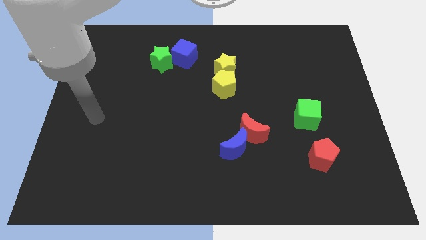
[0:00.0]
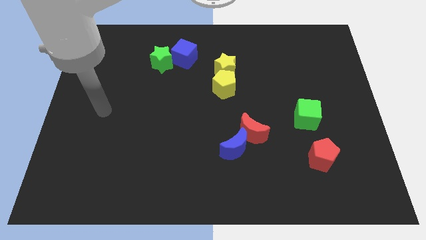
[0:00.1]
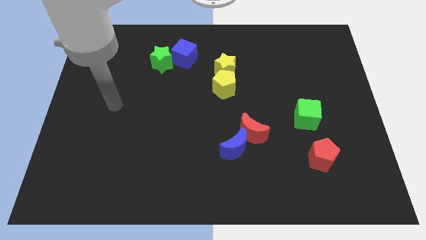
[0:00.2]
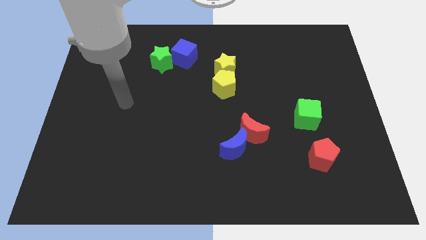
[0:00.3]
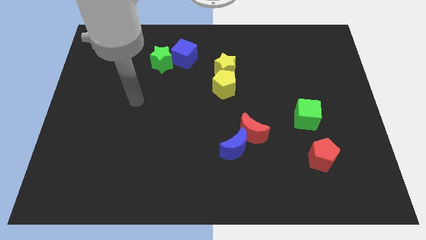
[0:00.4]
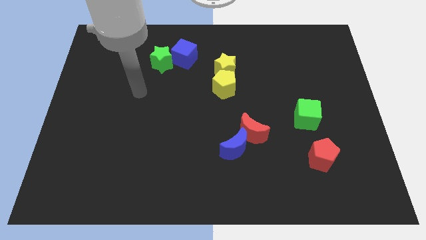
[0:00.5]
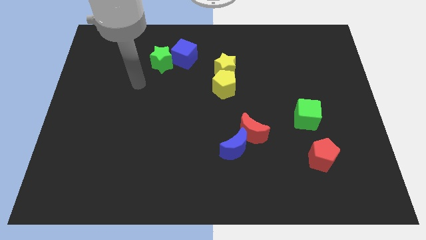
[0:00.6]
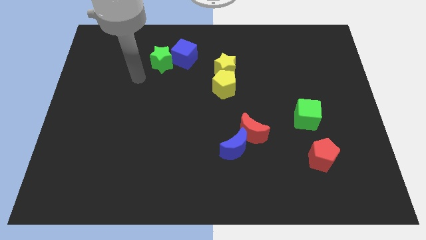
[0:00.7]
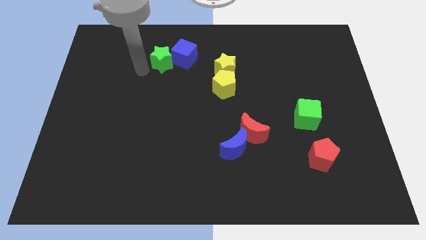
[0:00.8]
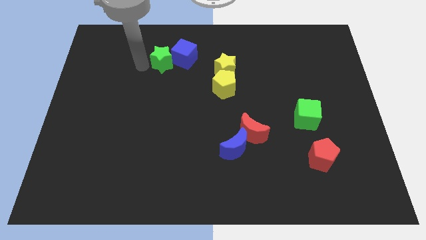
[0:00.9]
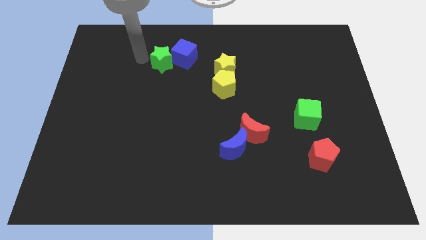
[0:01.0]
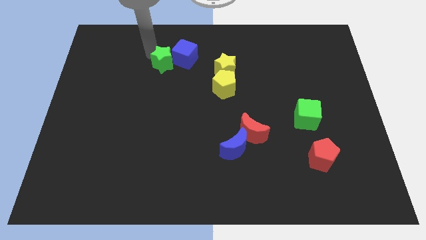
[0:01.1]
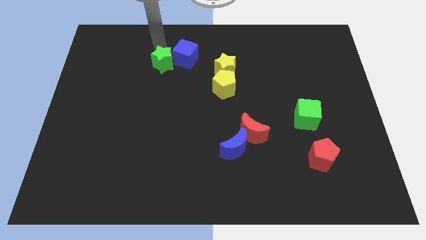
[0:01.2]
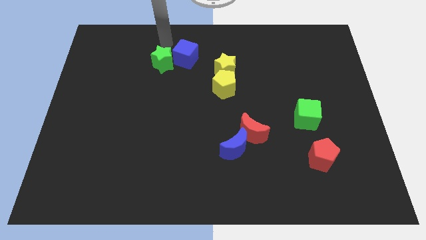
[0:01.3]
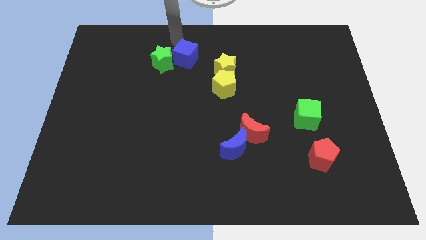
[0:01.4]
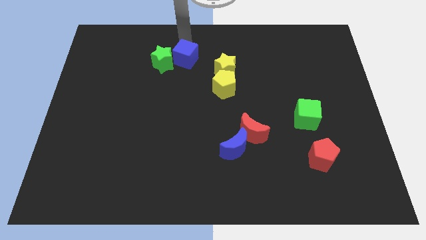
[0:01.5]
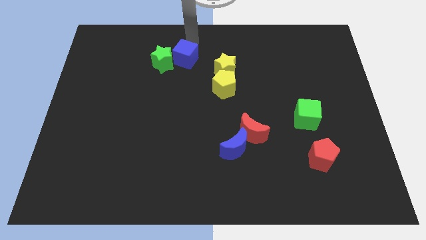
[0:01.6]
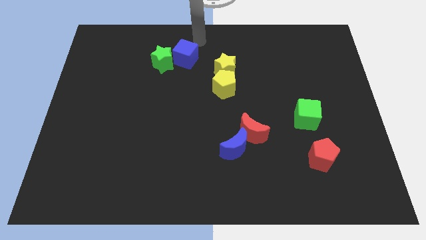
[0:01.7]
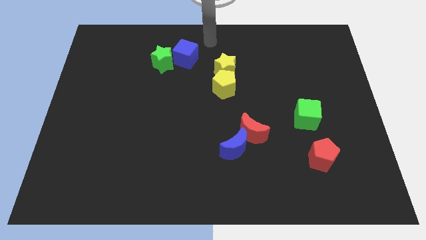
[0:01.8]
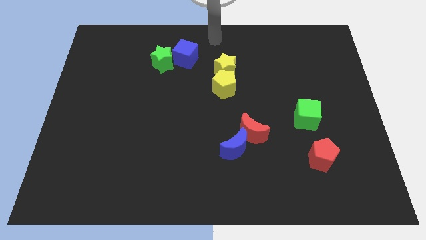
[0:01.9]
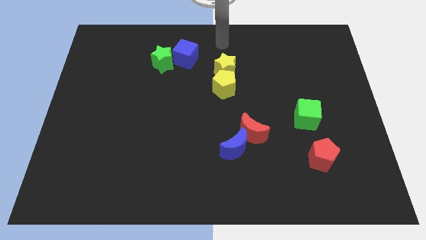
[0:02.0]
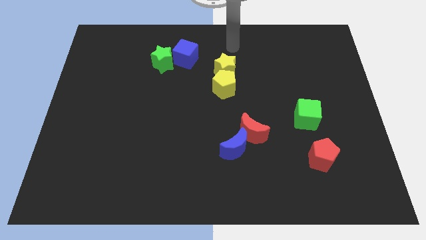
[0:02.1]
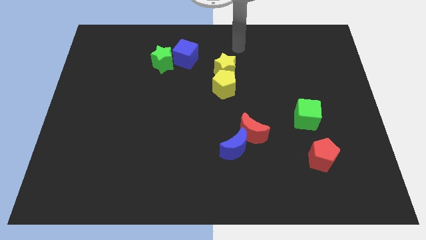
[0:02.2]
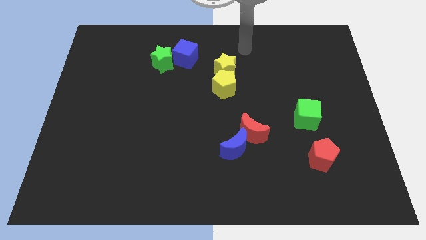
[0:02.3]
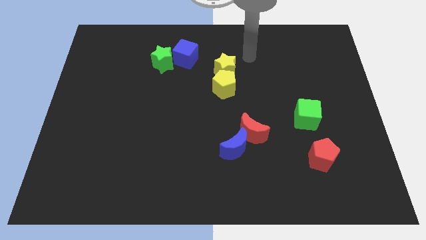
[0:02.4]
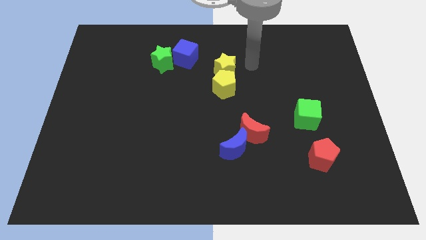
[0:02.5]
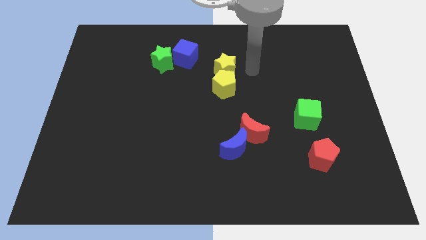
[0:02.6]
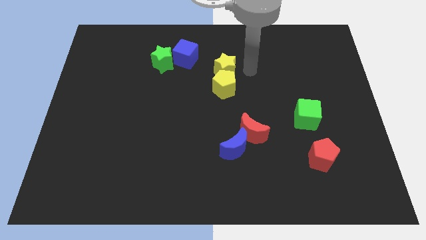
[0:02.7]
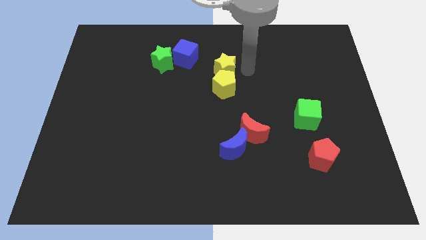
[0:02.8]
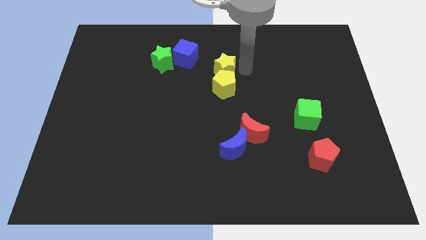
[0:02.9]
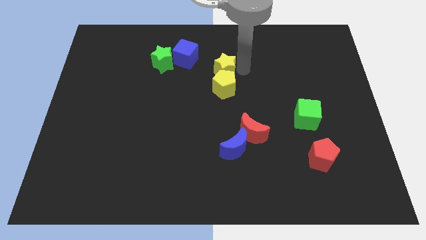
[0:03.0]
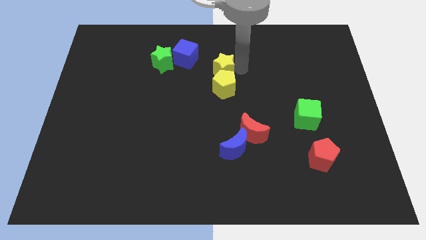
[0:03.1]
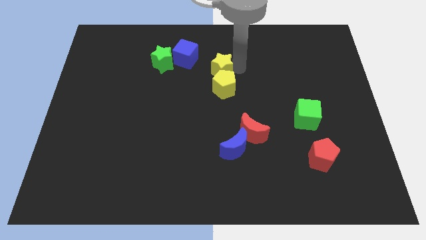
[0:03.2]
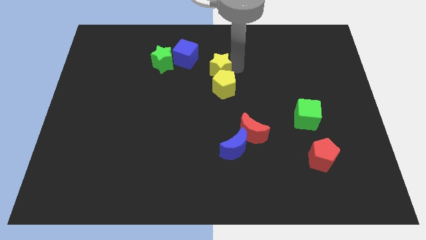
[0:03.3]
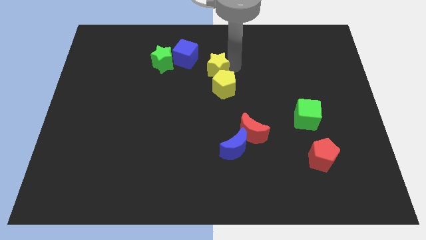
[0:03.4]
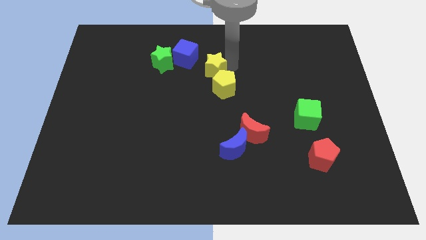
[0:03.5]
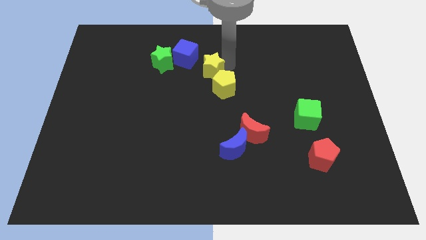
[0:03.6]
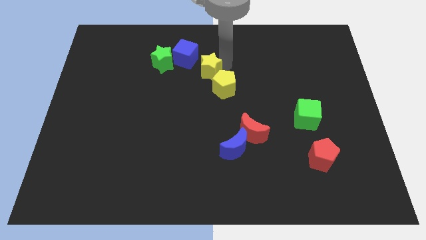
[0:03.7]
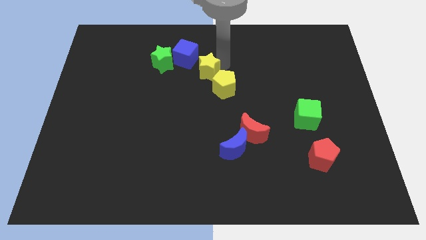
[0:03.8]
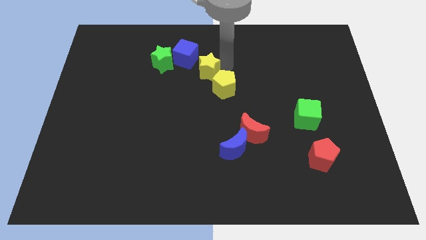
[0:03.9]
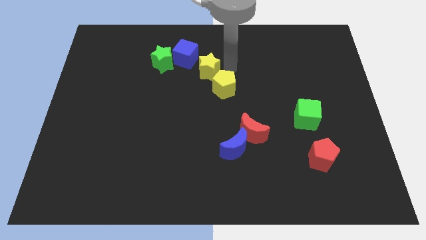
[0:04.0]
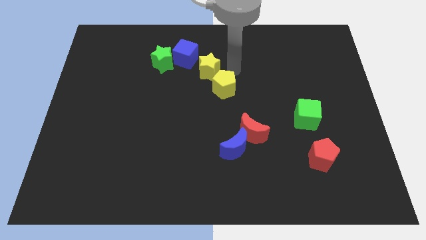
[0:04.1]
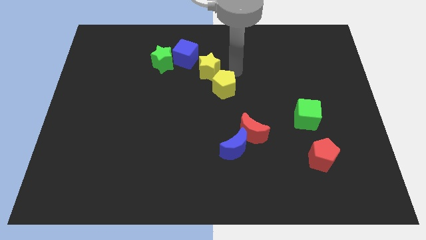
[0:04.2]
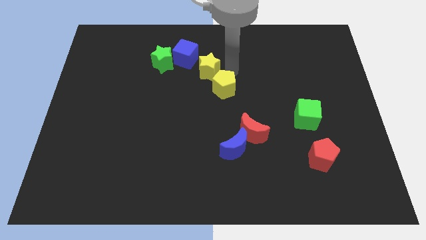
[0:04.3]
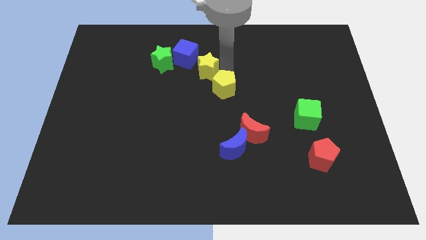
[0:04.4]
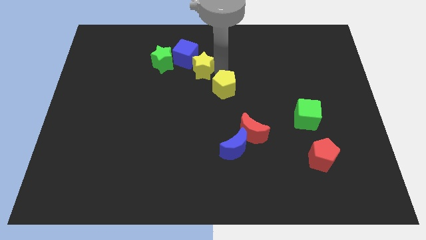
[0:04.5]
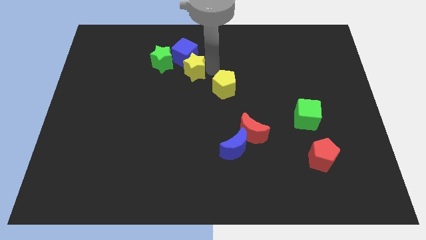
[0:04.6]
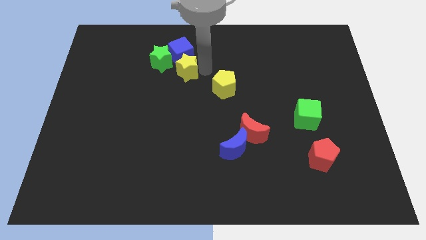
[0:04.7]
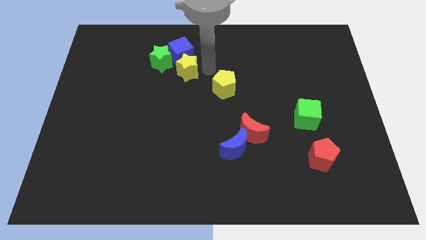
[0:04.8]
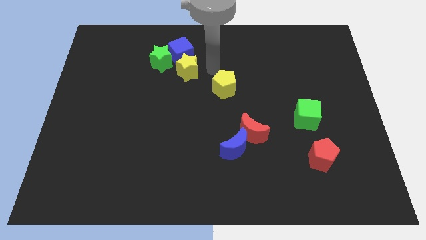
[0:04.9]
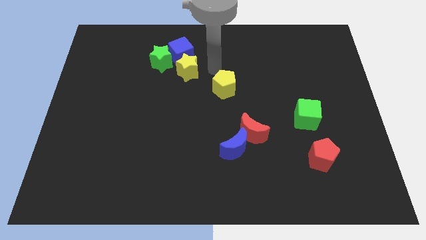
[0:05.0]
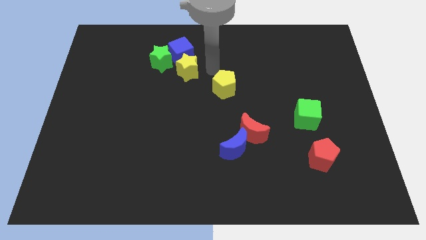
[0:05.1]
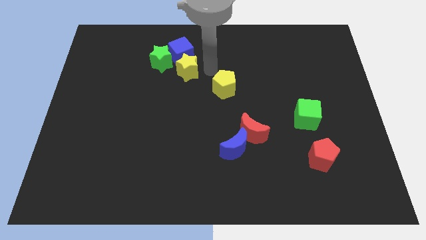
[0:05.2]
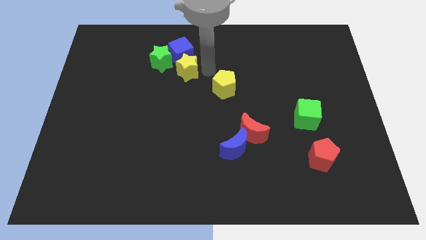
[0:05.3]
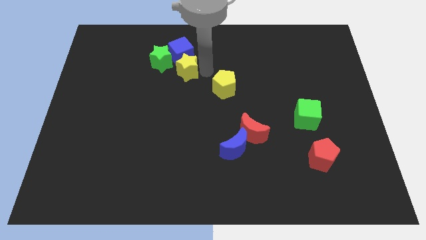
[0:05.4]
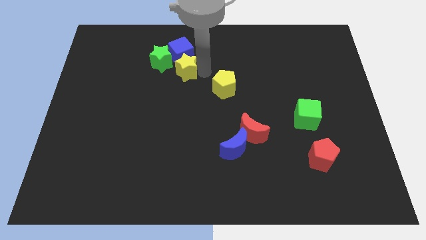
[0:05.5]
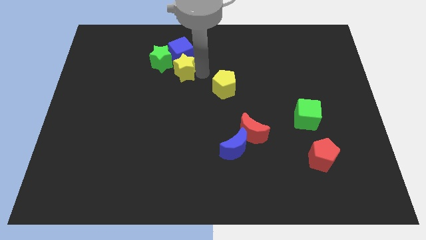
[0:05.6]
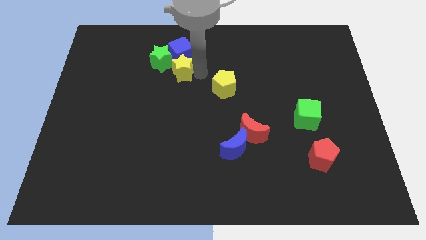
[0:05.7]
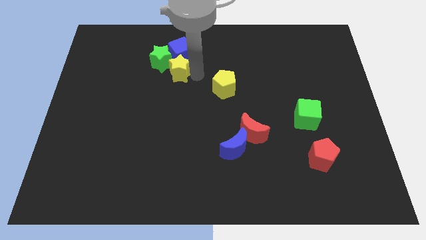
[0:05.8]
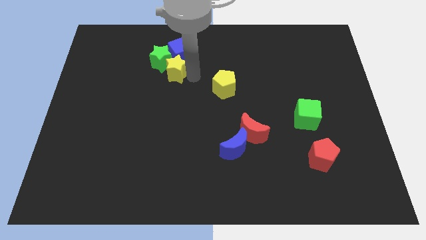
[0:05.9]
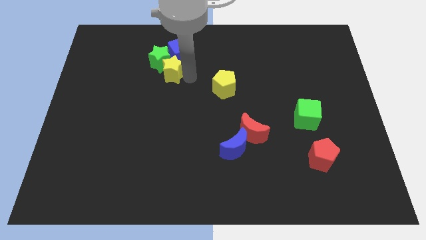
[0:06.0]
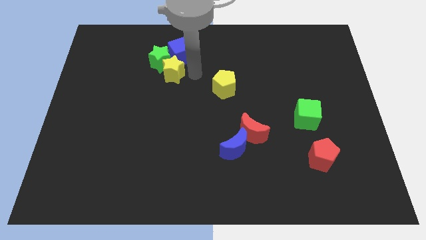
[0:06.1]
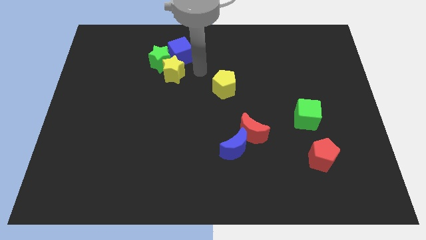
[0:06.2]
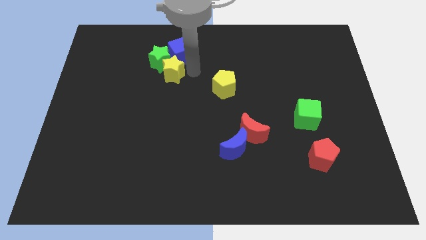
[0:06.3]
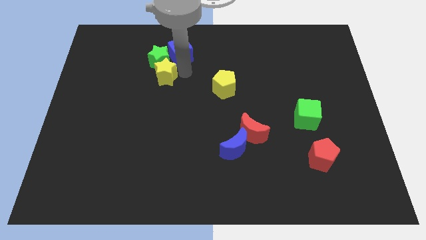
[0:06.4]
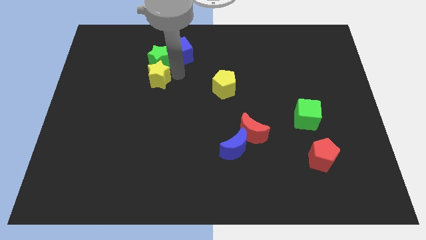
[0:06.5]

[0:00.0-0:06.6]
slide the yellow star to the bottom left side of the green star

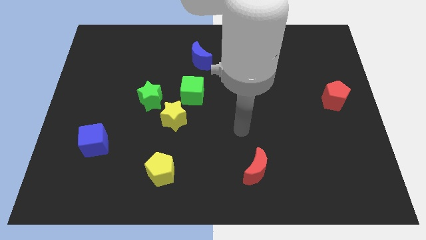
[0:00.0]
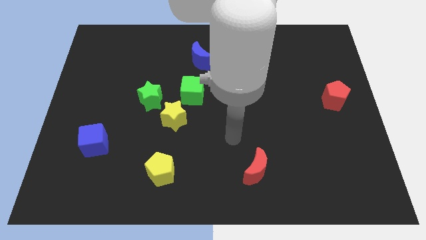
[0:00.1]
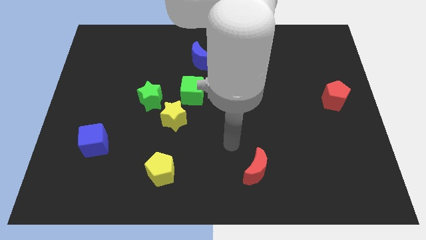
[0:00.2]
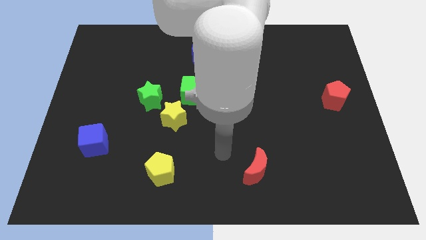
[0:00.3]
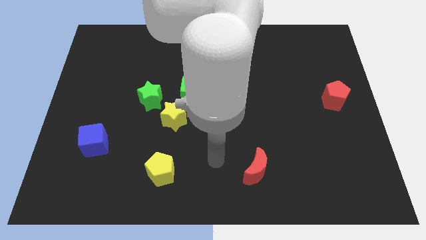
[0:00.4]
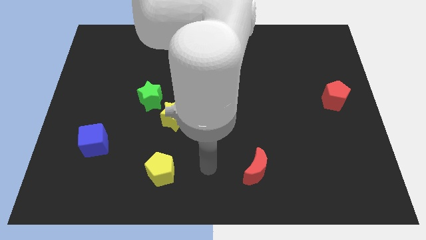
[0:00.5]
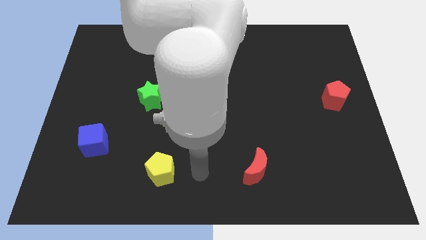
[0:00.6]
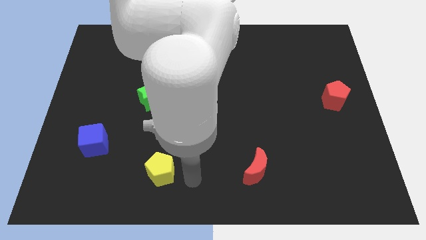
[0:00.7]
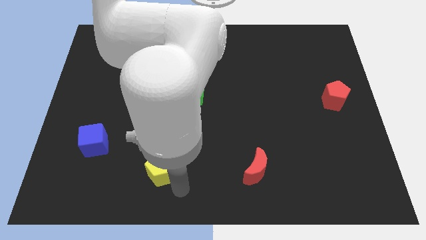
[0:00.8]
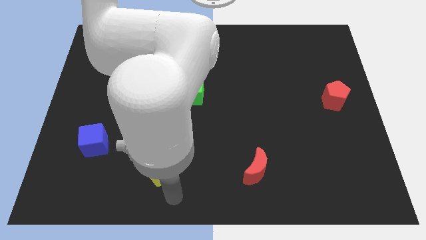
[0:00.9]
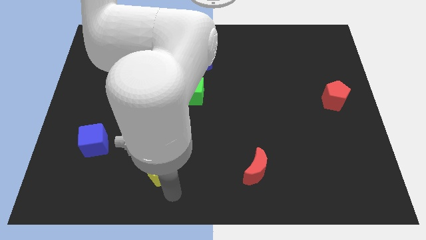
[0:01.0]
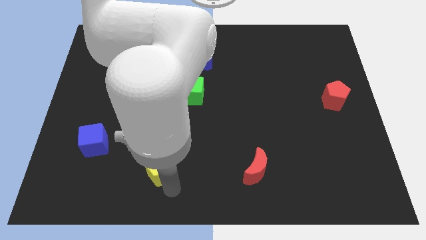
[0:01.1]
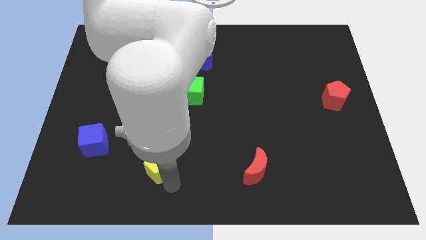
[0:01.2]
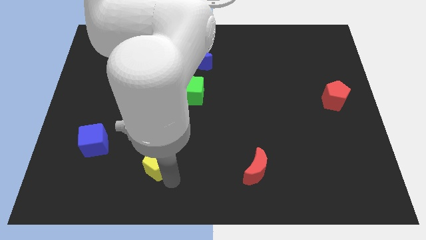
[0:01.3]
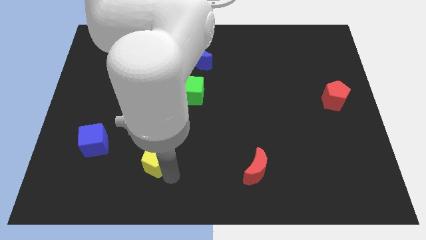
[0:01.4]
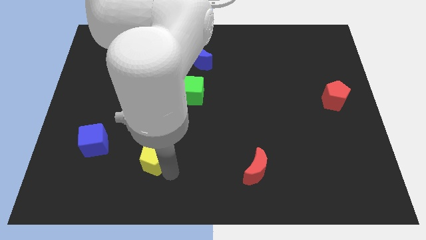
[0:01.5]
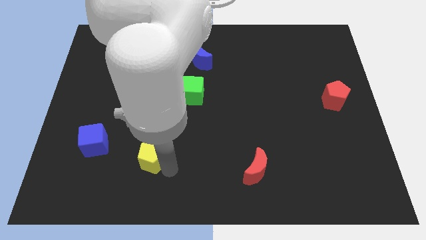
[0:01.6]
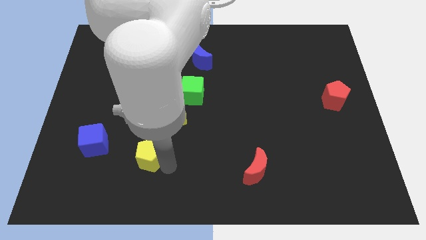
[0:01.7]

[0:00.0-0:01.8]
put the yellow pentagon below the green star
